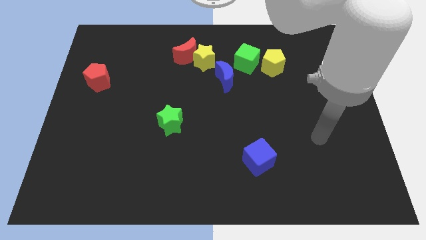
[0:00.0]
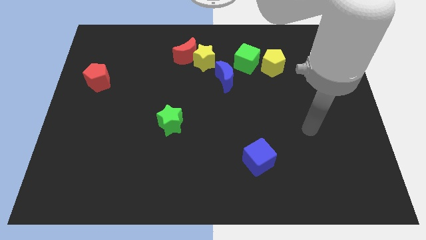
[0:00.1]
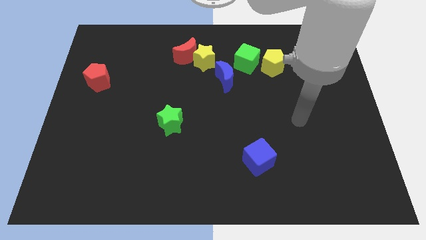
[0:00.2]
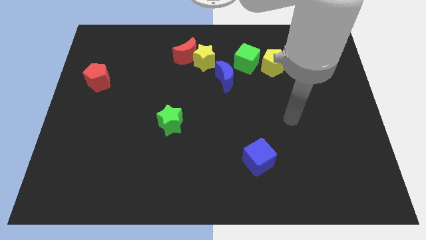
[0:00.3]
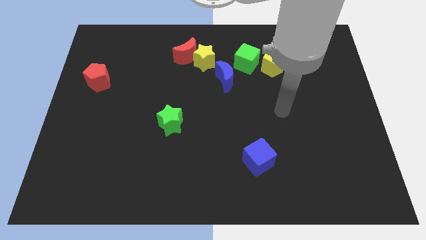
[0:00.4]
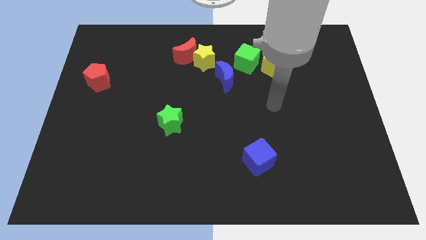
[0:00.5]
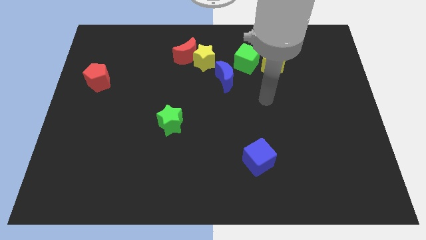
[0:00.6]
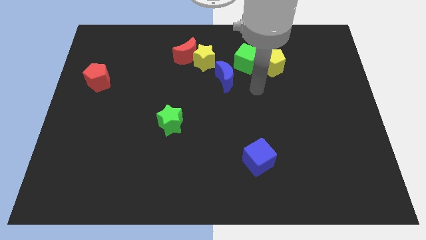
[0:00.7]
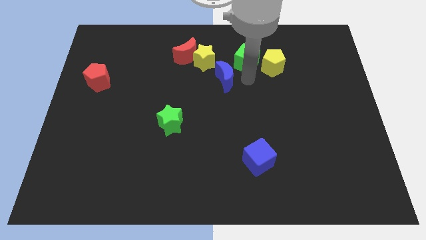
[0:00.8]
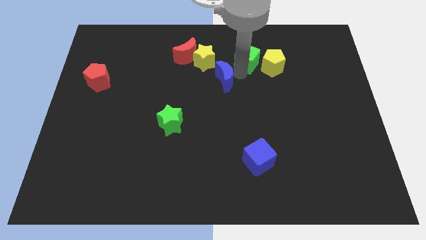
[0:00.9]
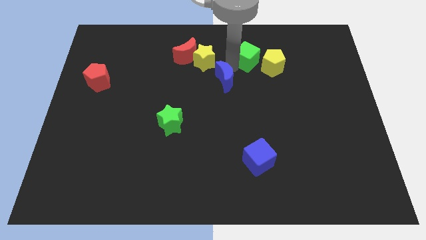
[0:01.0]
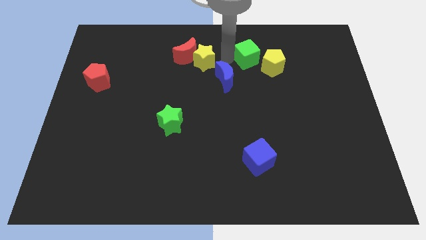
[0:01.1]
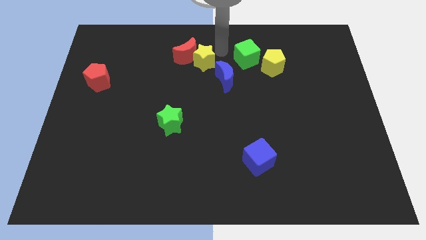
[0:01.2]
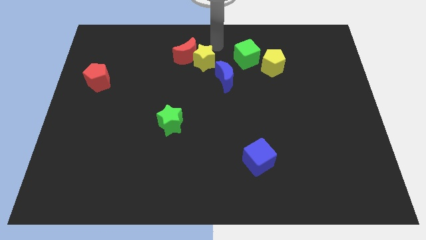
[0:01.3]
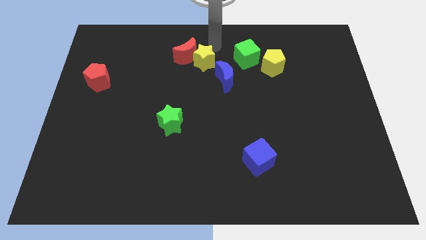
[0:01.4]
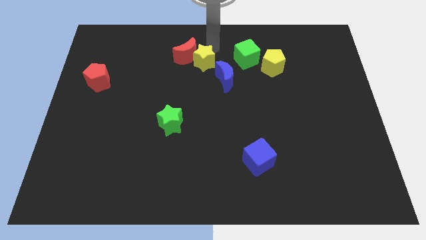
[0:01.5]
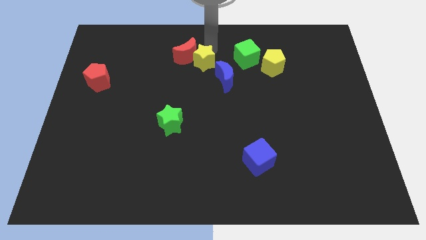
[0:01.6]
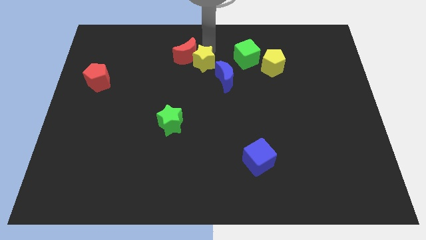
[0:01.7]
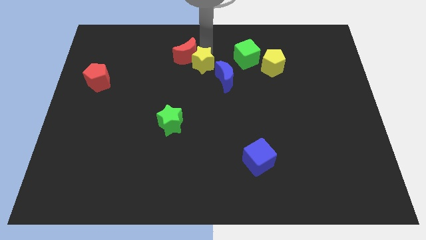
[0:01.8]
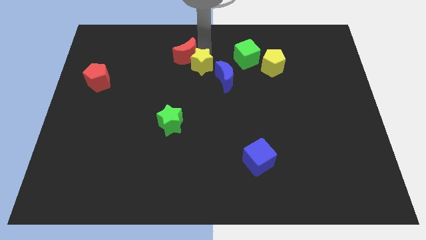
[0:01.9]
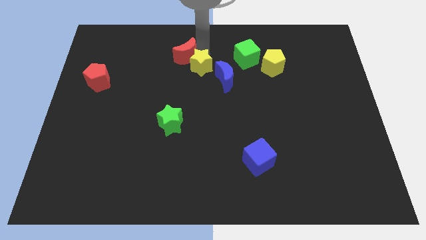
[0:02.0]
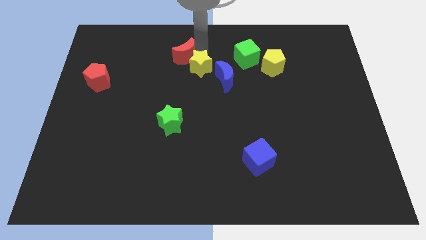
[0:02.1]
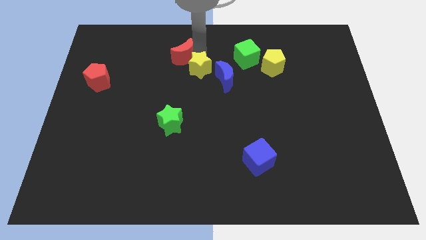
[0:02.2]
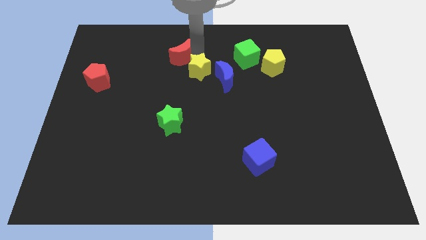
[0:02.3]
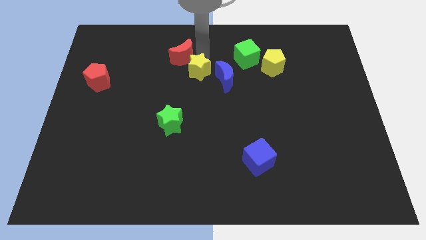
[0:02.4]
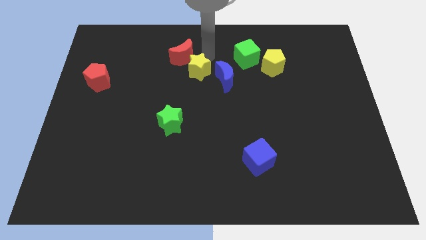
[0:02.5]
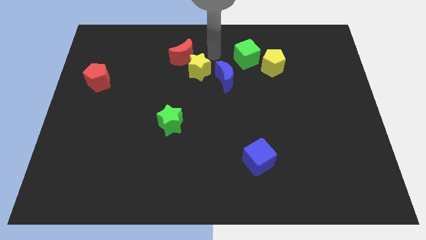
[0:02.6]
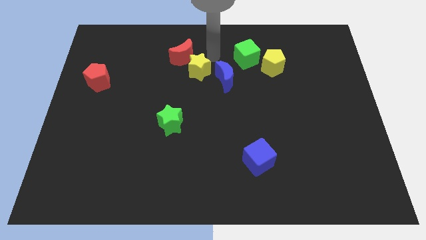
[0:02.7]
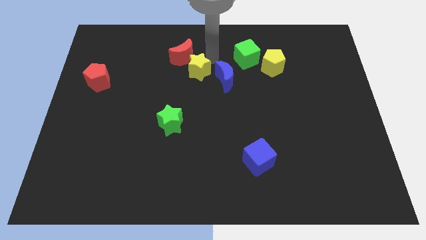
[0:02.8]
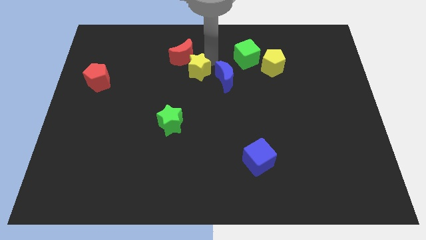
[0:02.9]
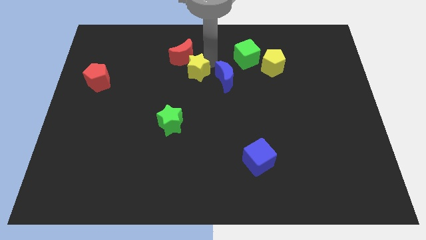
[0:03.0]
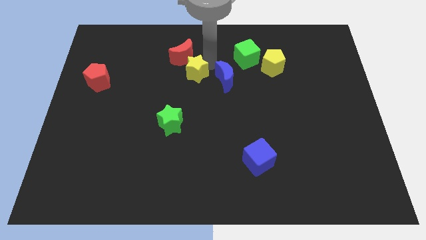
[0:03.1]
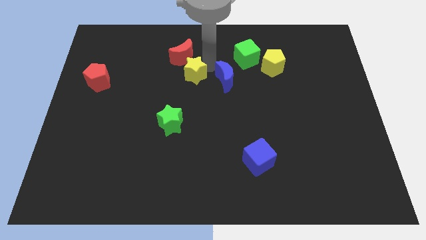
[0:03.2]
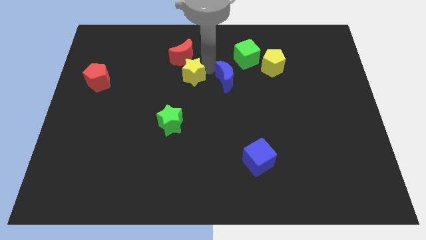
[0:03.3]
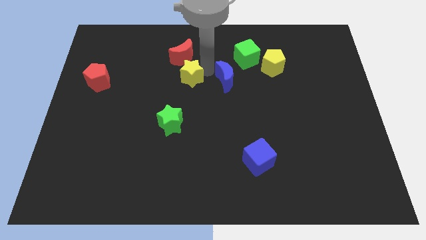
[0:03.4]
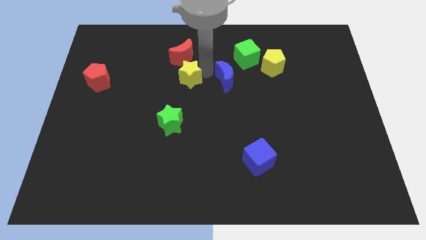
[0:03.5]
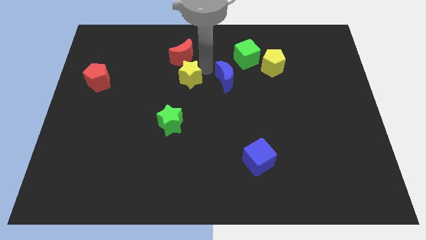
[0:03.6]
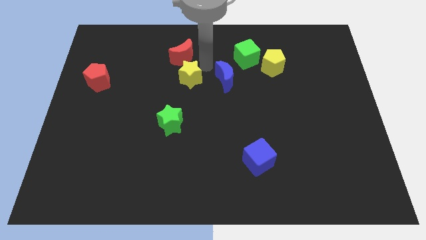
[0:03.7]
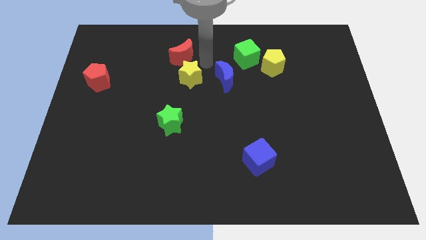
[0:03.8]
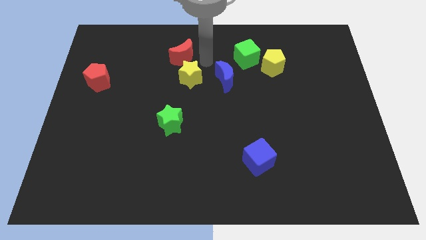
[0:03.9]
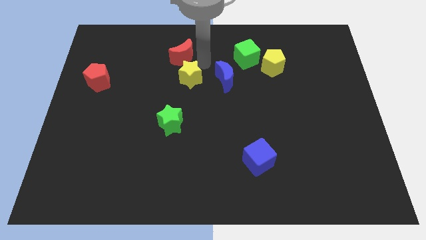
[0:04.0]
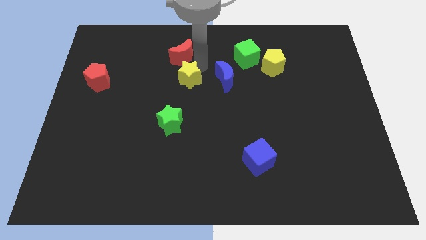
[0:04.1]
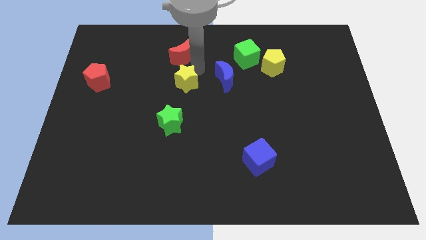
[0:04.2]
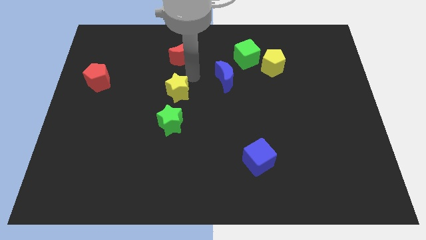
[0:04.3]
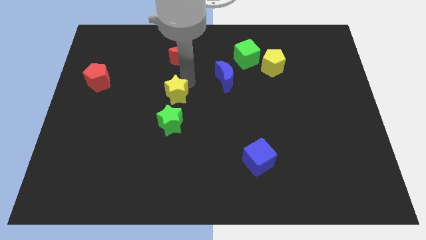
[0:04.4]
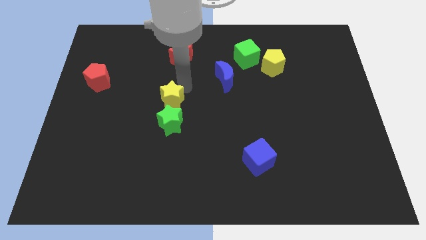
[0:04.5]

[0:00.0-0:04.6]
put the yellow star to the top left of the green star

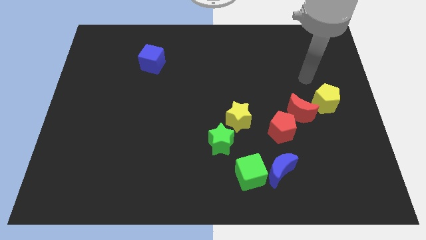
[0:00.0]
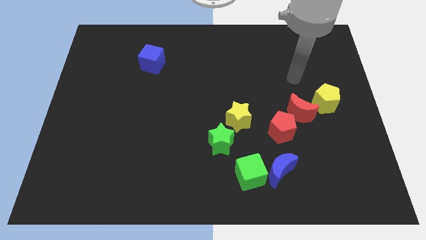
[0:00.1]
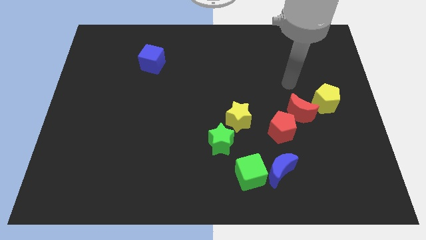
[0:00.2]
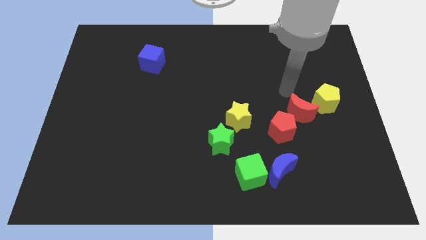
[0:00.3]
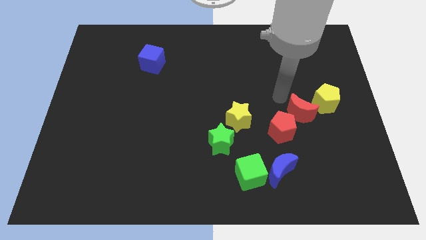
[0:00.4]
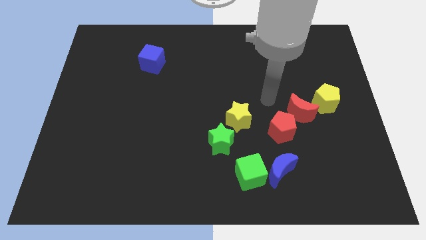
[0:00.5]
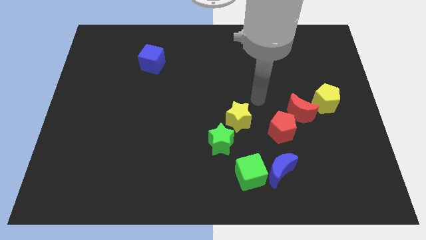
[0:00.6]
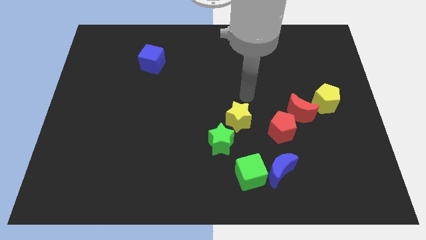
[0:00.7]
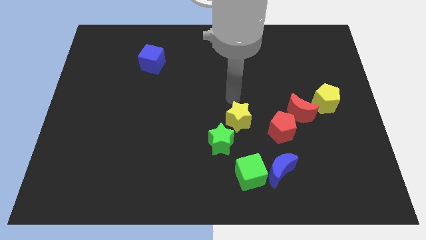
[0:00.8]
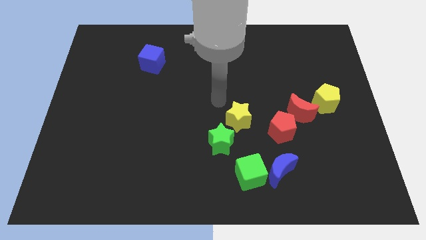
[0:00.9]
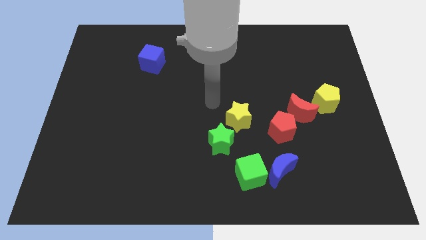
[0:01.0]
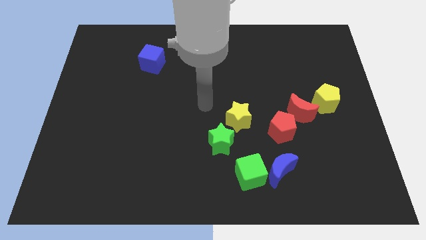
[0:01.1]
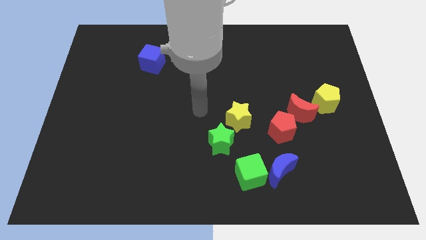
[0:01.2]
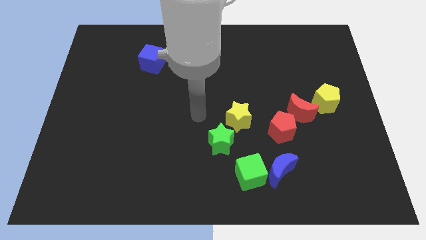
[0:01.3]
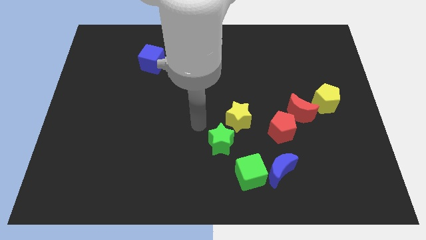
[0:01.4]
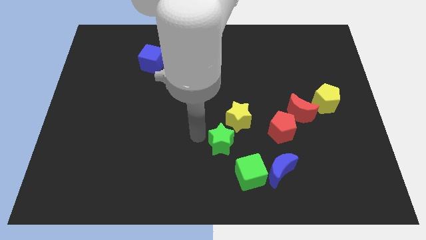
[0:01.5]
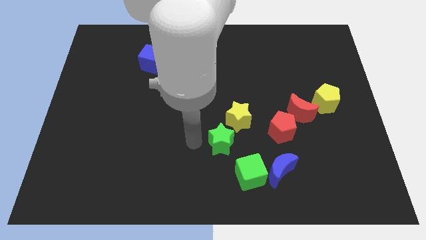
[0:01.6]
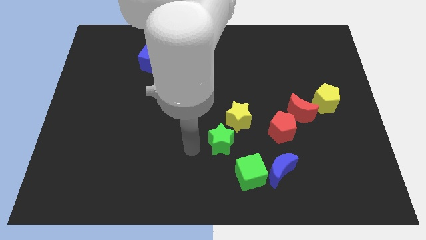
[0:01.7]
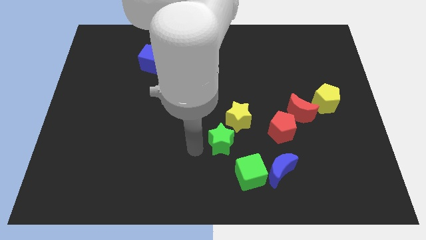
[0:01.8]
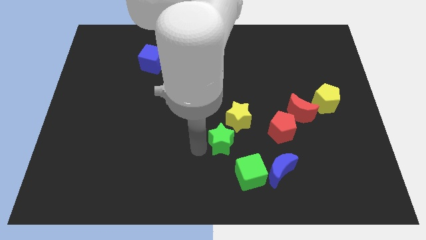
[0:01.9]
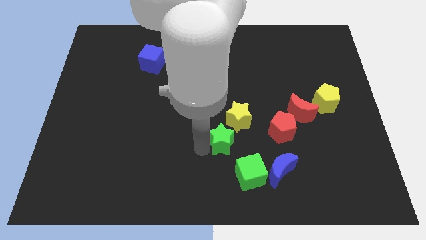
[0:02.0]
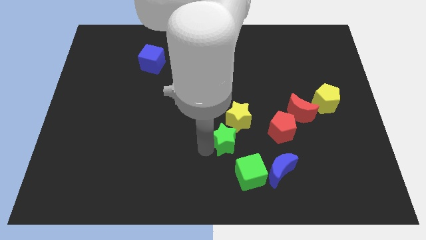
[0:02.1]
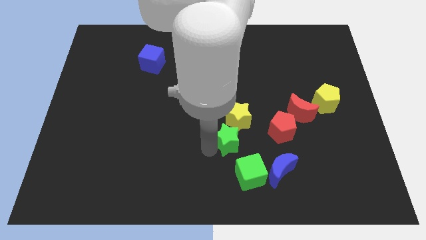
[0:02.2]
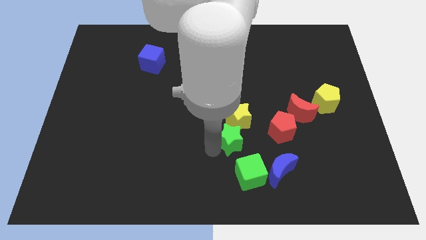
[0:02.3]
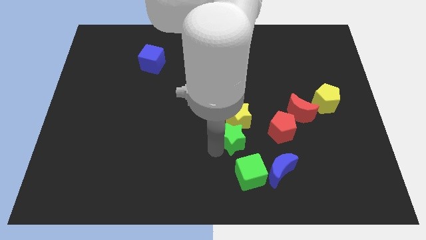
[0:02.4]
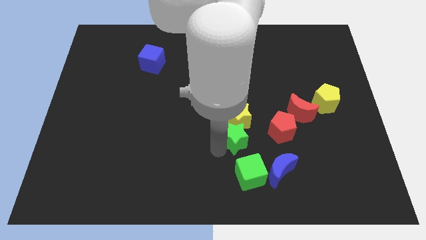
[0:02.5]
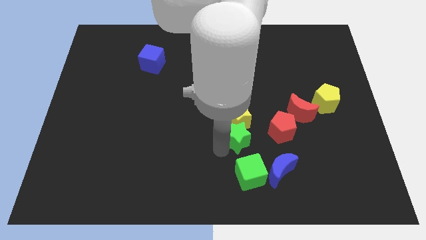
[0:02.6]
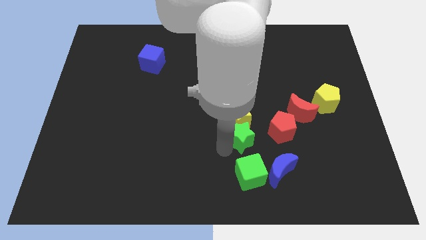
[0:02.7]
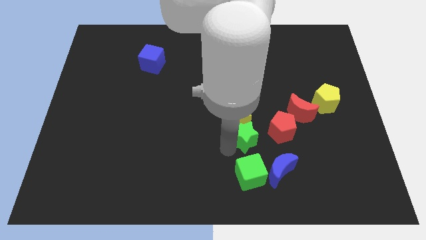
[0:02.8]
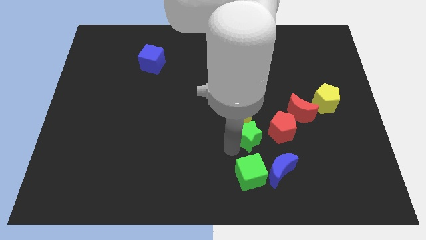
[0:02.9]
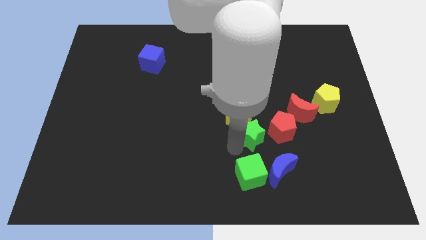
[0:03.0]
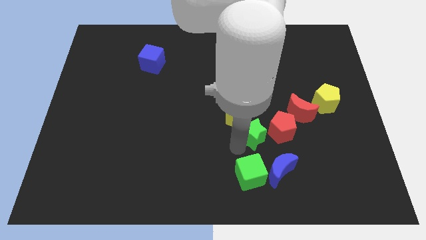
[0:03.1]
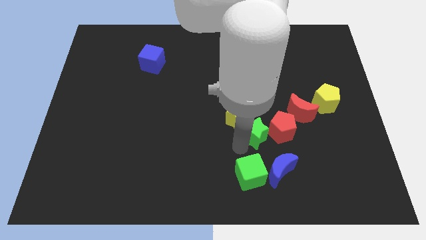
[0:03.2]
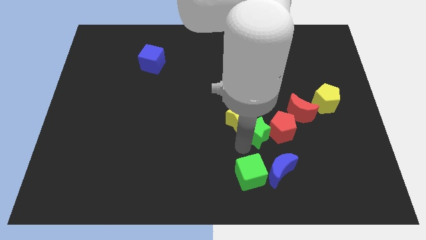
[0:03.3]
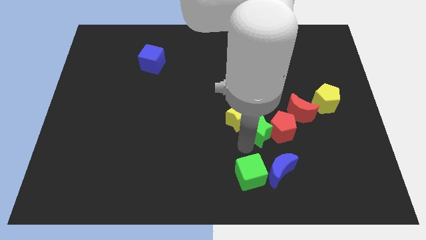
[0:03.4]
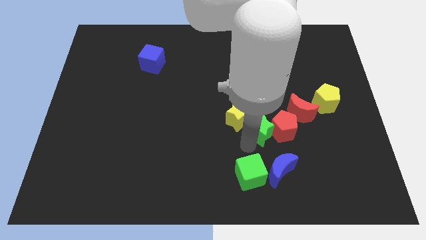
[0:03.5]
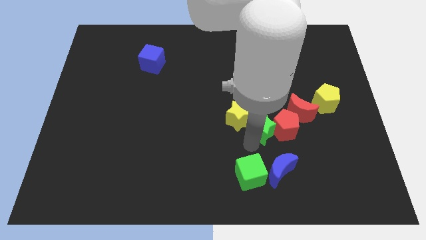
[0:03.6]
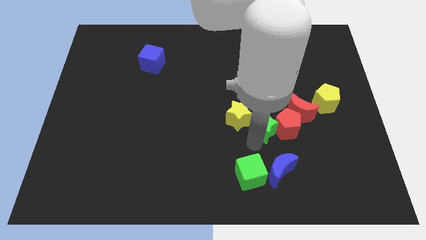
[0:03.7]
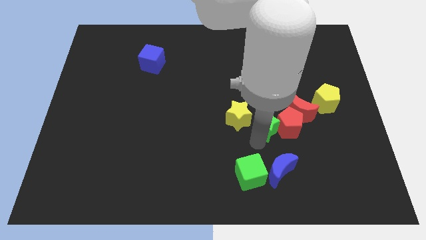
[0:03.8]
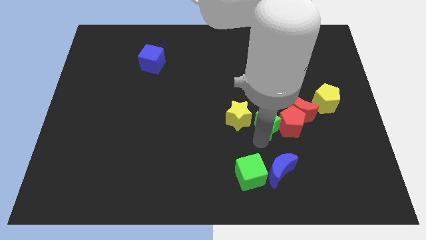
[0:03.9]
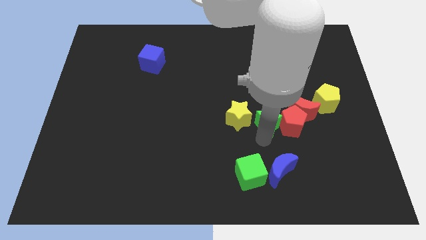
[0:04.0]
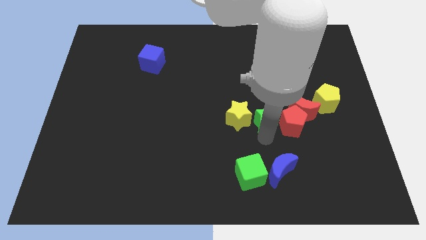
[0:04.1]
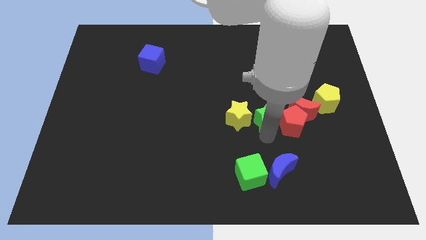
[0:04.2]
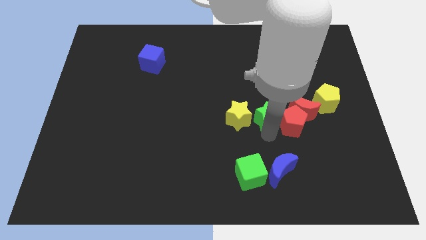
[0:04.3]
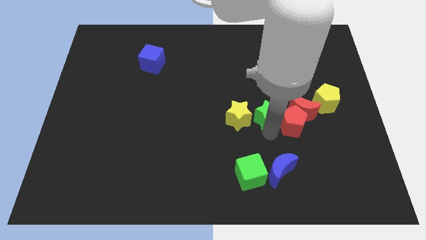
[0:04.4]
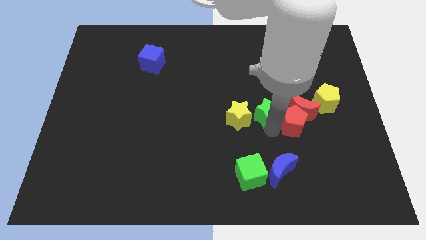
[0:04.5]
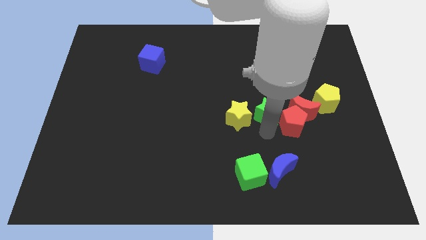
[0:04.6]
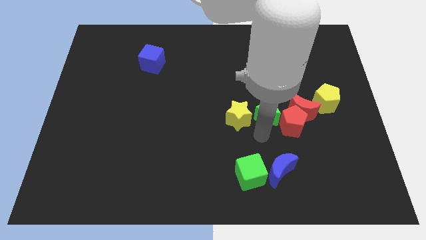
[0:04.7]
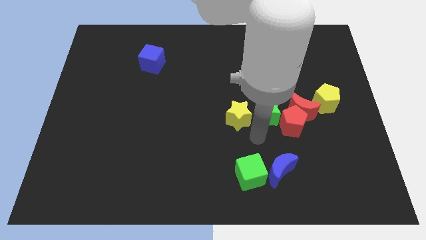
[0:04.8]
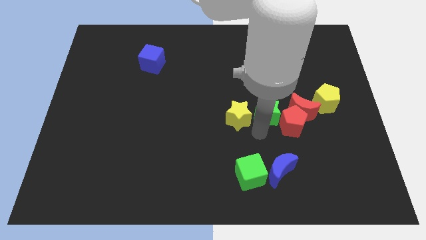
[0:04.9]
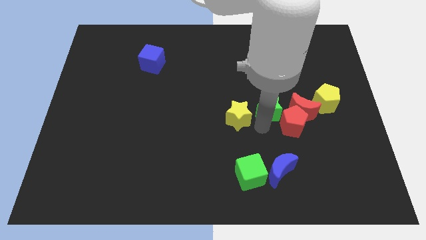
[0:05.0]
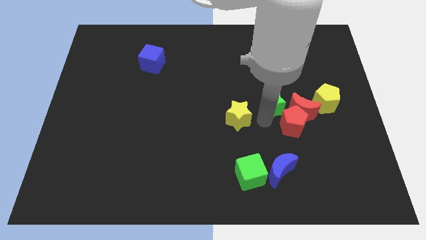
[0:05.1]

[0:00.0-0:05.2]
move the green star to the top left side of the red moon
